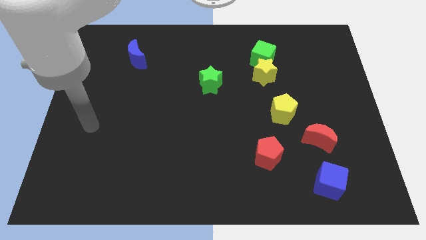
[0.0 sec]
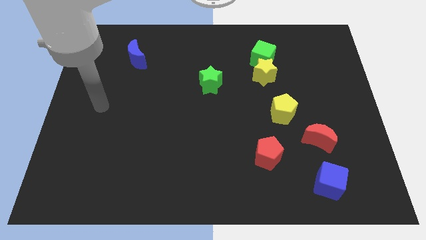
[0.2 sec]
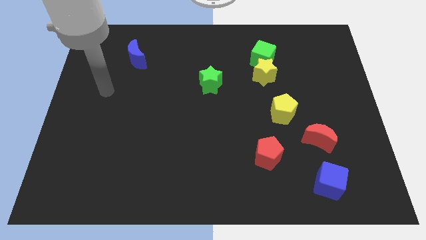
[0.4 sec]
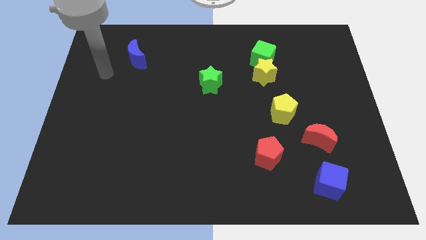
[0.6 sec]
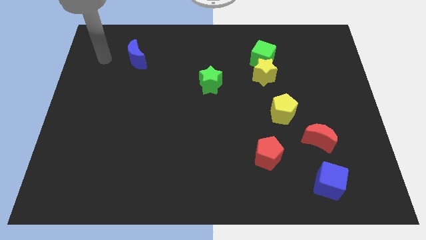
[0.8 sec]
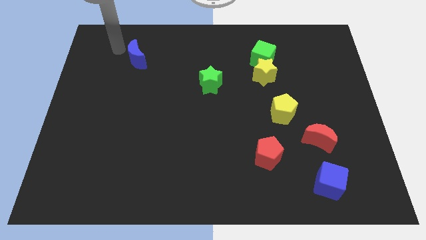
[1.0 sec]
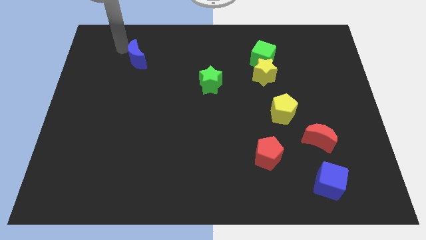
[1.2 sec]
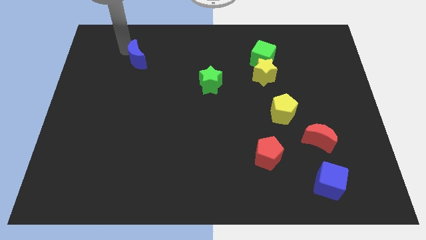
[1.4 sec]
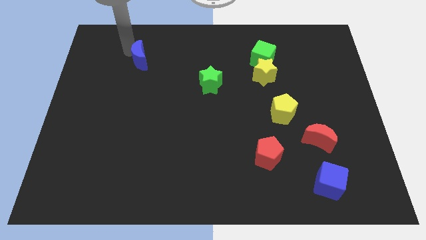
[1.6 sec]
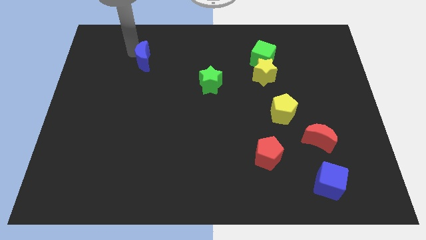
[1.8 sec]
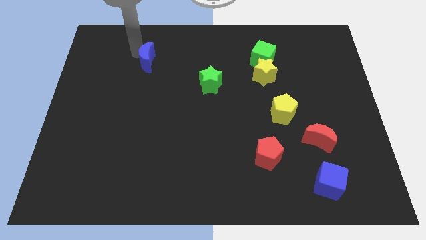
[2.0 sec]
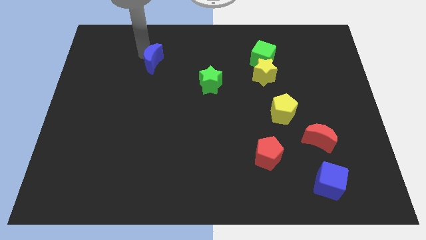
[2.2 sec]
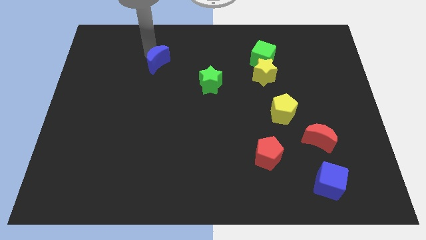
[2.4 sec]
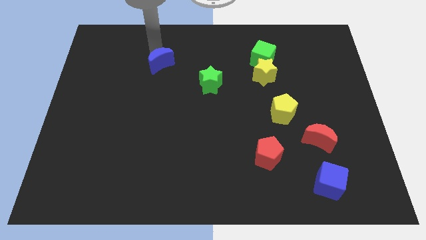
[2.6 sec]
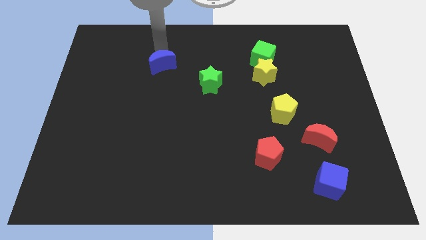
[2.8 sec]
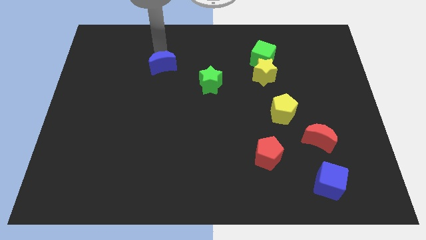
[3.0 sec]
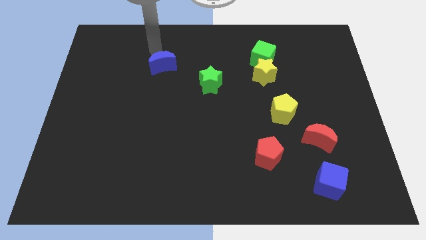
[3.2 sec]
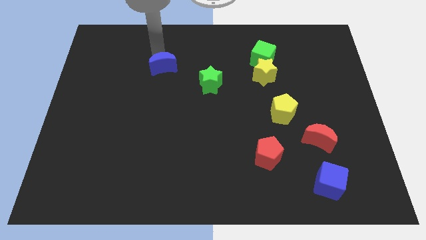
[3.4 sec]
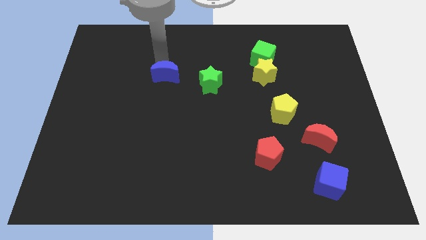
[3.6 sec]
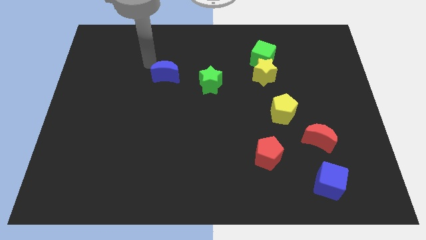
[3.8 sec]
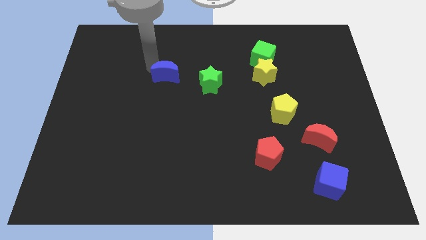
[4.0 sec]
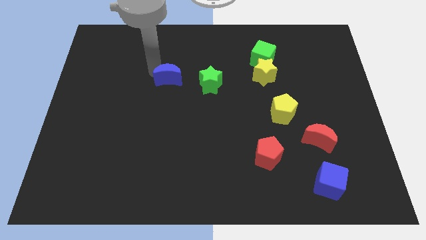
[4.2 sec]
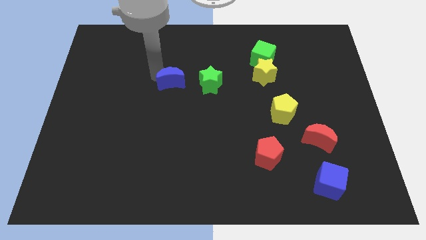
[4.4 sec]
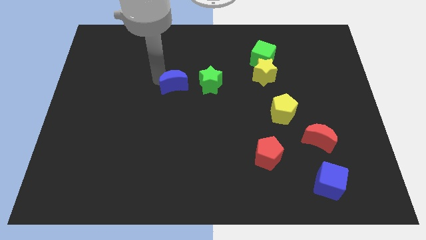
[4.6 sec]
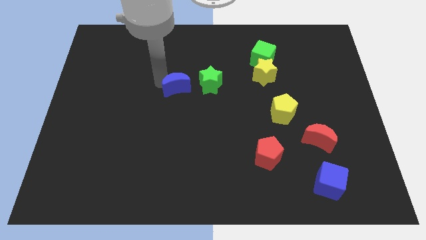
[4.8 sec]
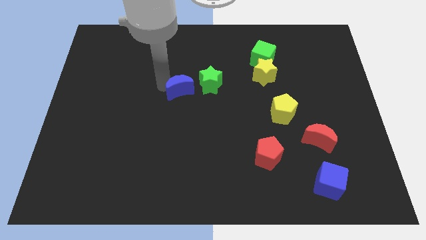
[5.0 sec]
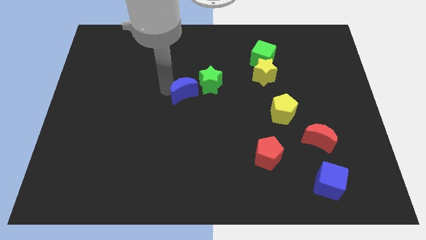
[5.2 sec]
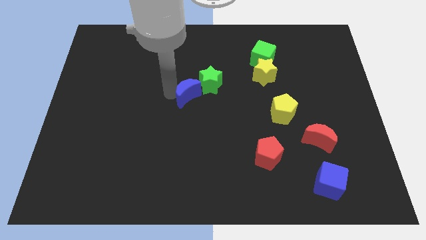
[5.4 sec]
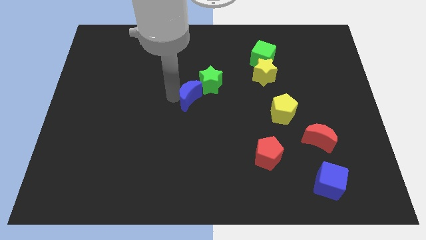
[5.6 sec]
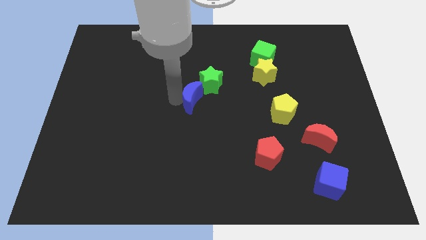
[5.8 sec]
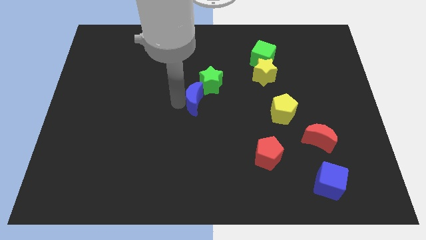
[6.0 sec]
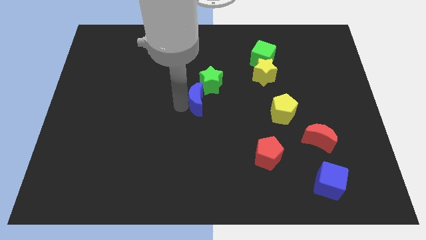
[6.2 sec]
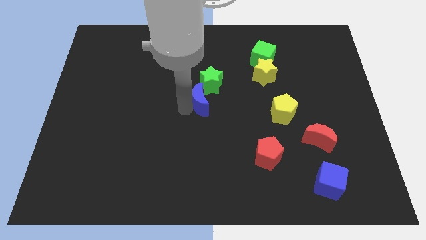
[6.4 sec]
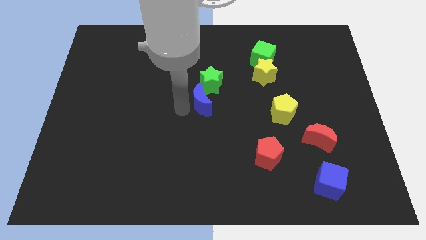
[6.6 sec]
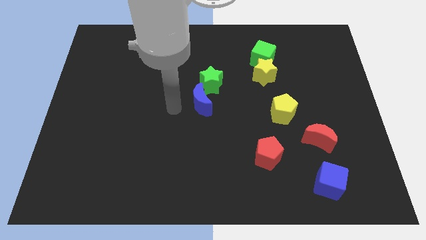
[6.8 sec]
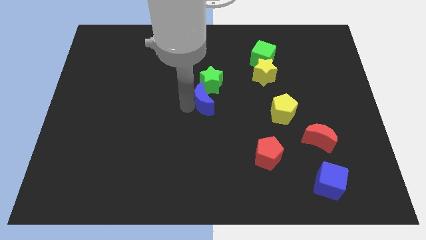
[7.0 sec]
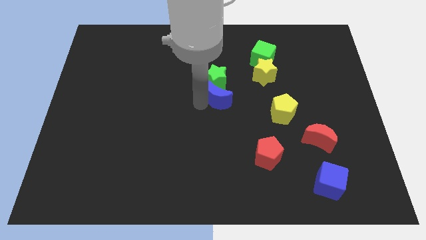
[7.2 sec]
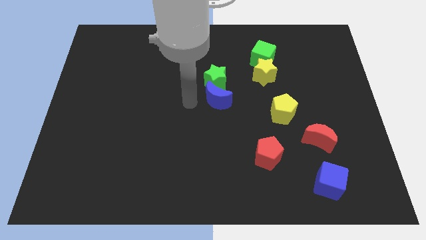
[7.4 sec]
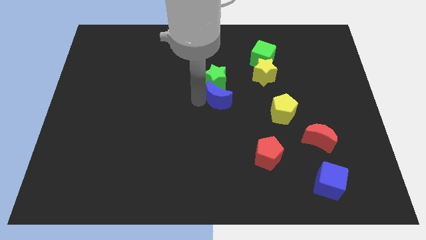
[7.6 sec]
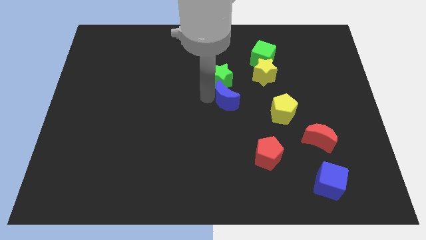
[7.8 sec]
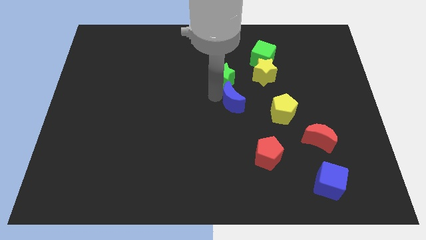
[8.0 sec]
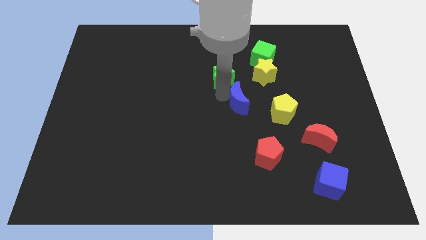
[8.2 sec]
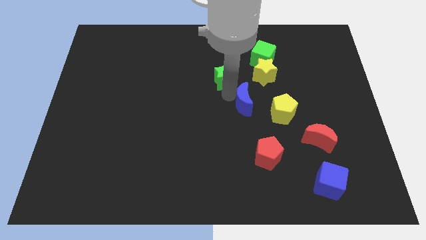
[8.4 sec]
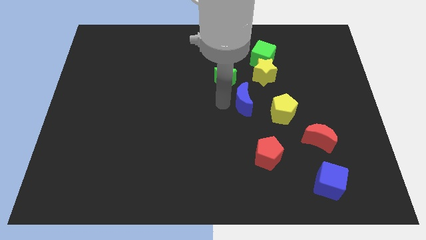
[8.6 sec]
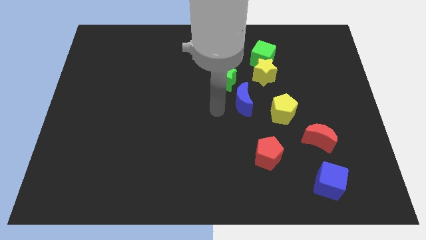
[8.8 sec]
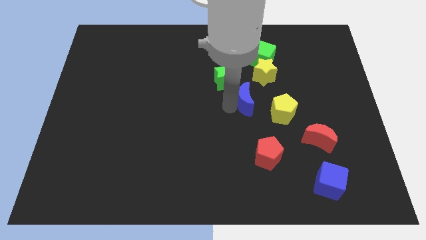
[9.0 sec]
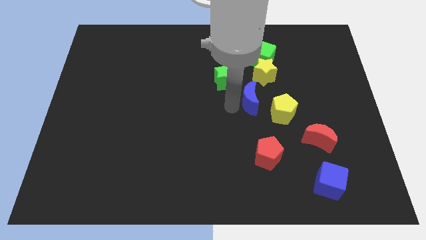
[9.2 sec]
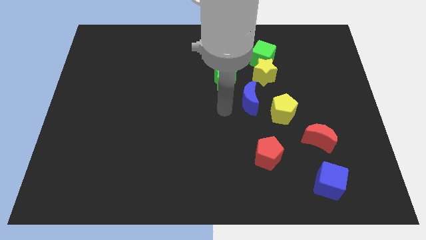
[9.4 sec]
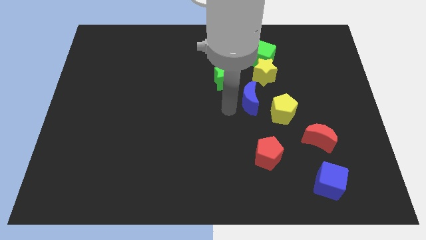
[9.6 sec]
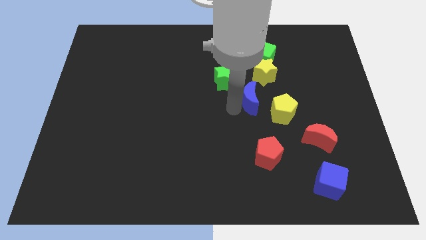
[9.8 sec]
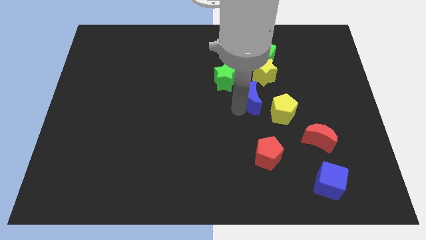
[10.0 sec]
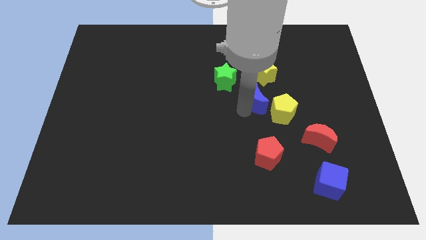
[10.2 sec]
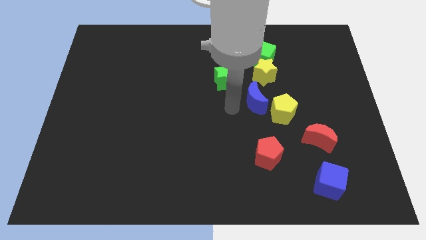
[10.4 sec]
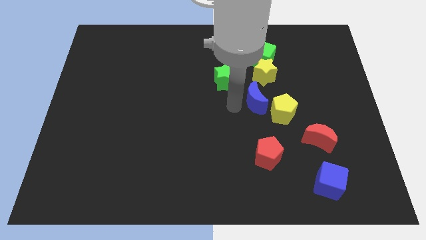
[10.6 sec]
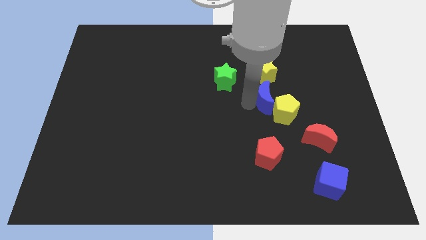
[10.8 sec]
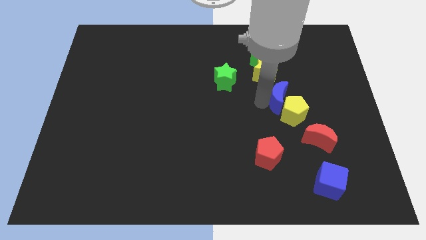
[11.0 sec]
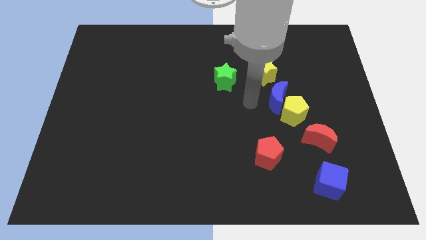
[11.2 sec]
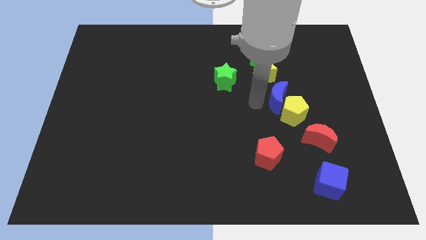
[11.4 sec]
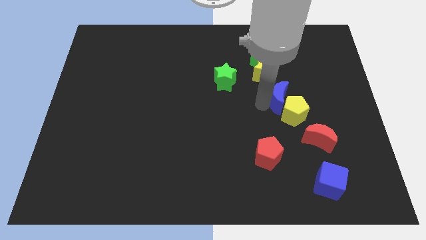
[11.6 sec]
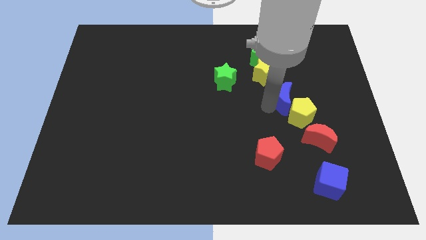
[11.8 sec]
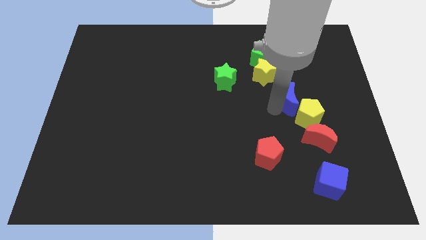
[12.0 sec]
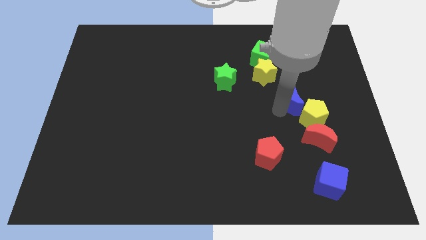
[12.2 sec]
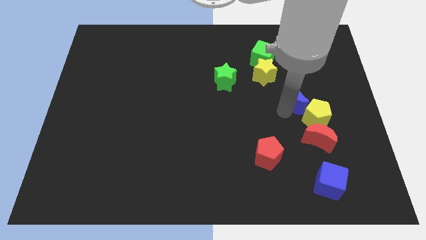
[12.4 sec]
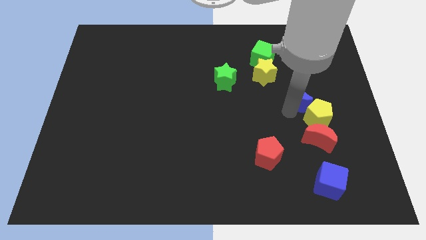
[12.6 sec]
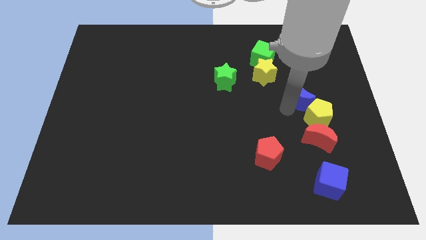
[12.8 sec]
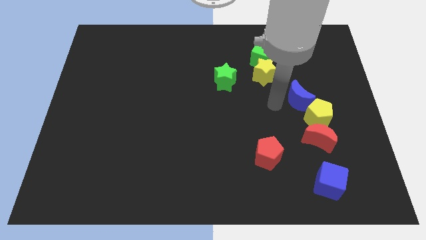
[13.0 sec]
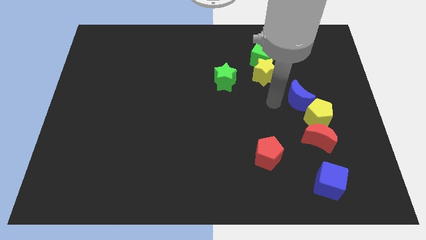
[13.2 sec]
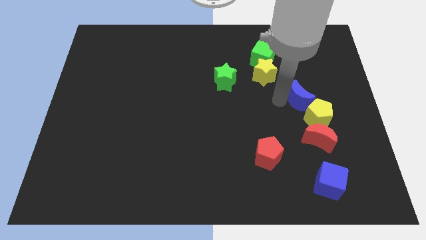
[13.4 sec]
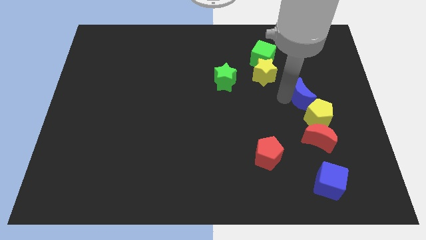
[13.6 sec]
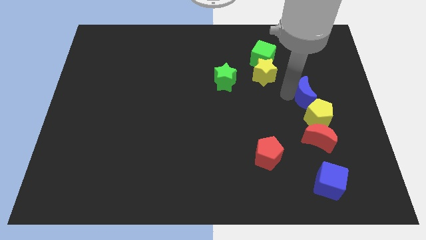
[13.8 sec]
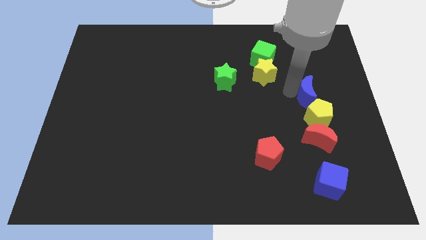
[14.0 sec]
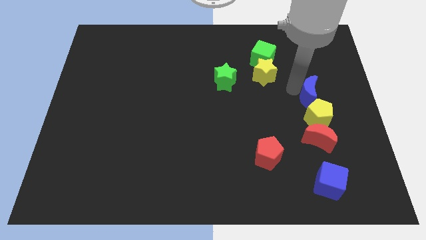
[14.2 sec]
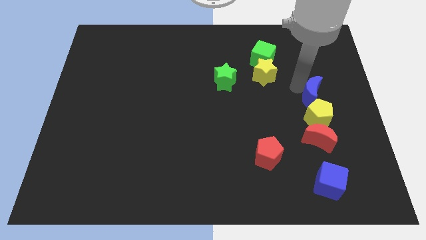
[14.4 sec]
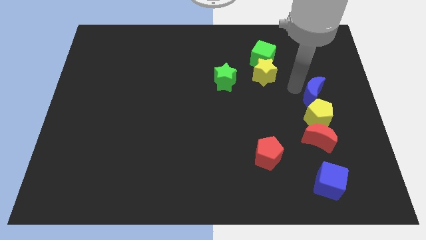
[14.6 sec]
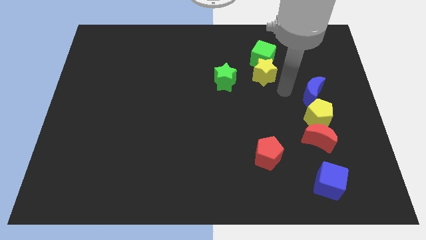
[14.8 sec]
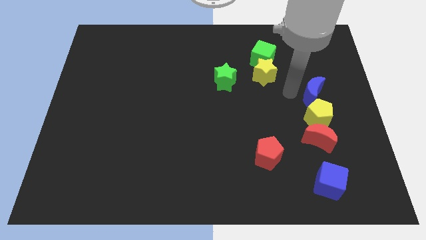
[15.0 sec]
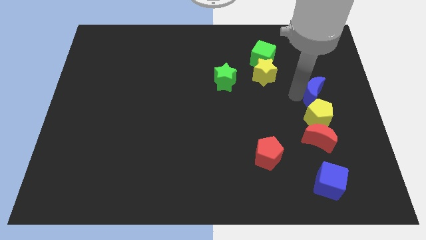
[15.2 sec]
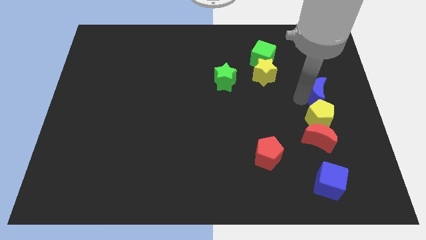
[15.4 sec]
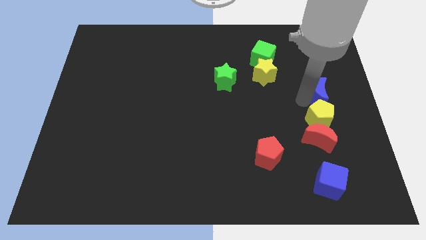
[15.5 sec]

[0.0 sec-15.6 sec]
slide the blue moon to the center right
